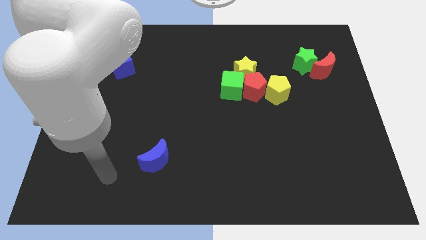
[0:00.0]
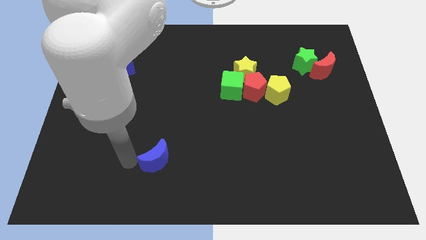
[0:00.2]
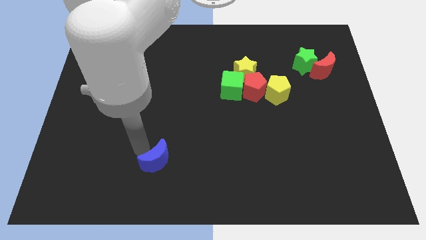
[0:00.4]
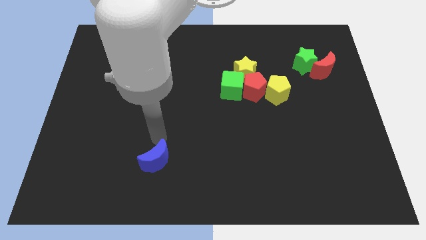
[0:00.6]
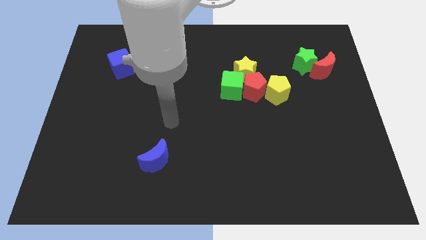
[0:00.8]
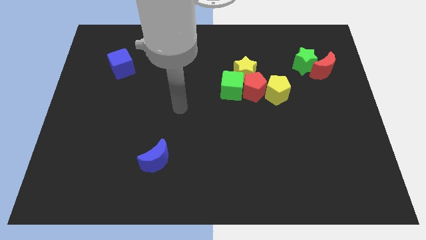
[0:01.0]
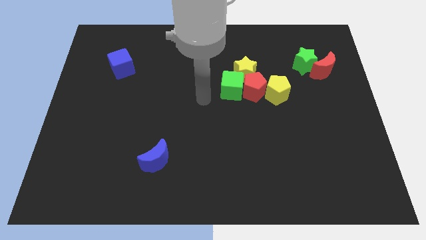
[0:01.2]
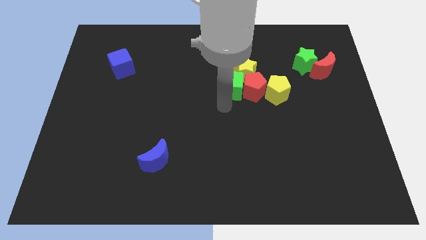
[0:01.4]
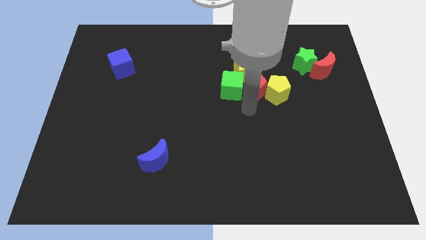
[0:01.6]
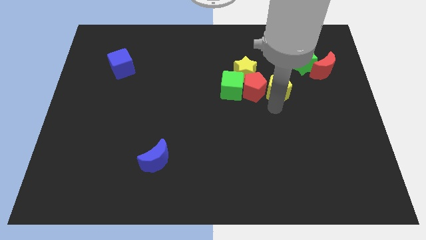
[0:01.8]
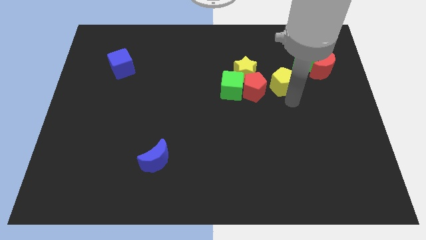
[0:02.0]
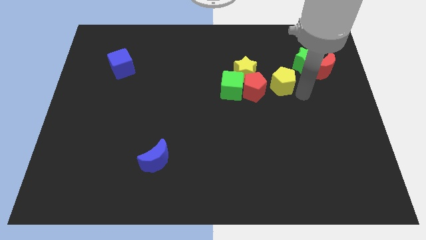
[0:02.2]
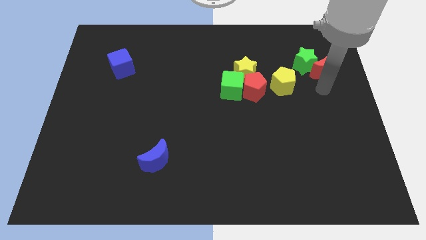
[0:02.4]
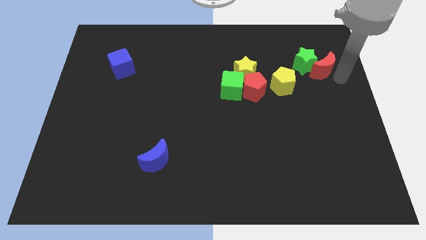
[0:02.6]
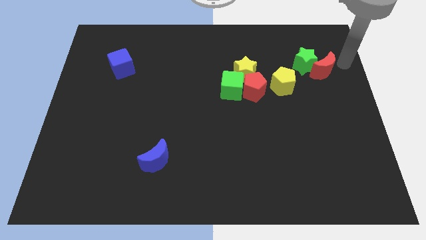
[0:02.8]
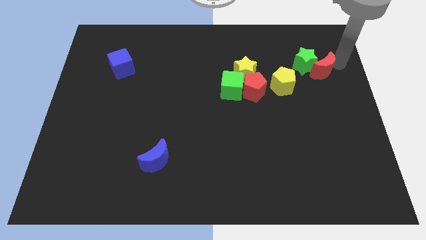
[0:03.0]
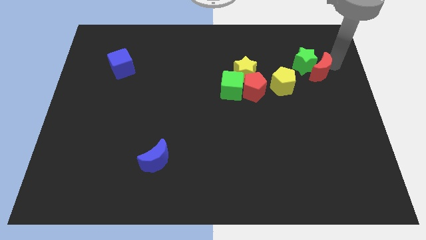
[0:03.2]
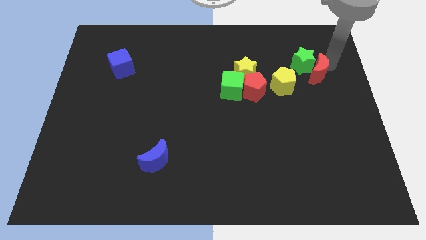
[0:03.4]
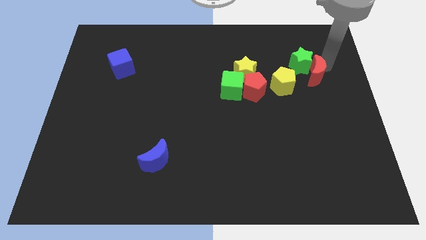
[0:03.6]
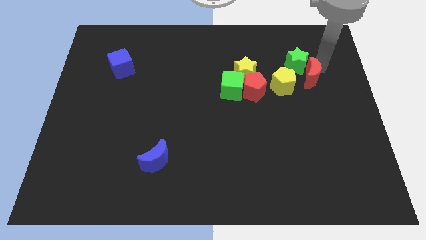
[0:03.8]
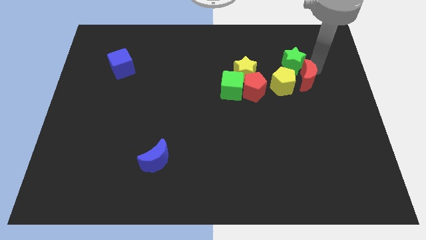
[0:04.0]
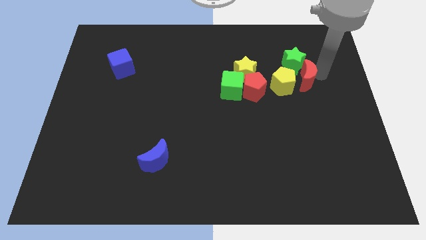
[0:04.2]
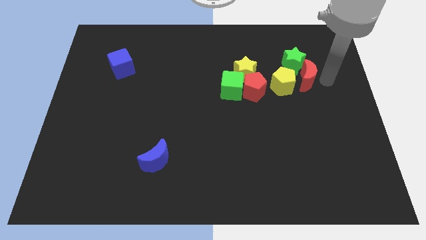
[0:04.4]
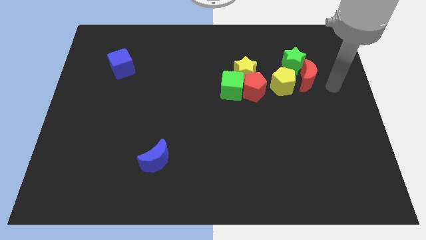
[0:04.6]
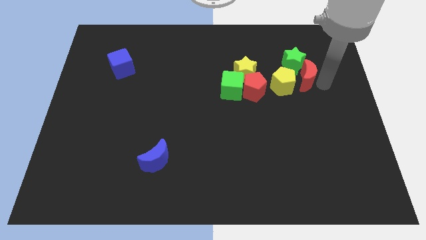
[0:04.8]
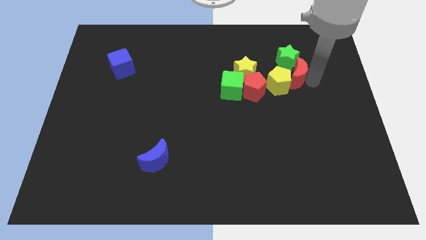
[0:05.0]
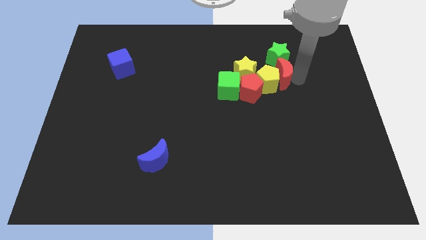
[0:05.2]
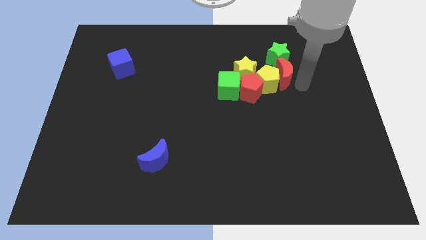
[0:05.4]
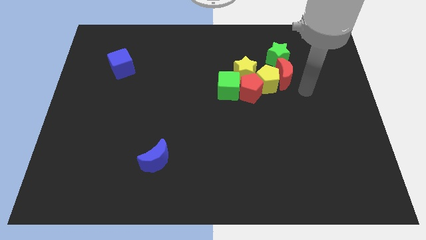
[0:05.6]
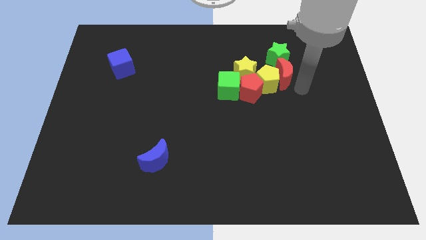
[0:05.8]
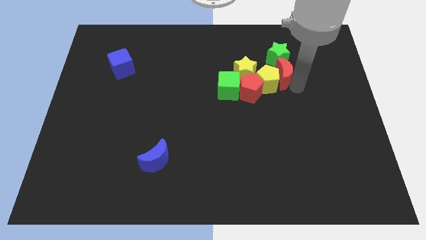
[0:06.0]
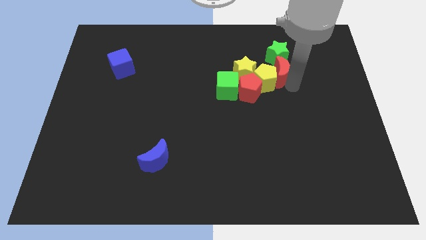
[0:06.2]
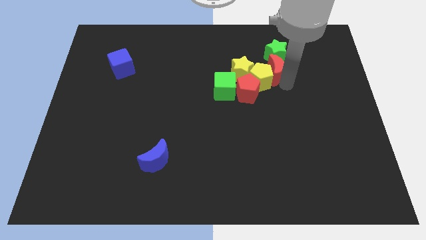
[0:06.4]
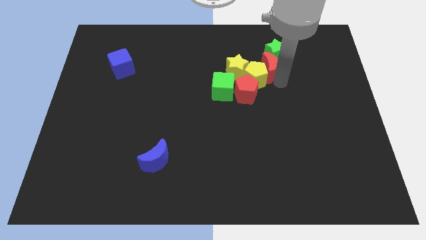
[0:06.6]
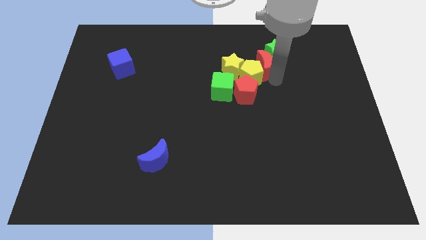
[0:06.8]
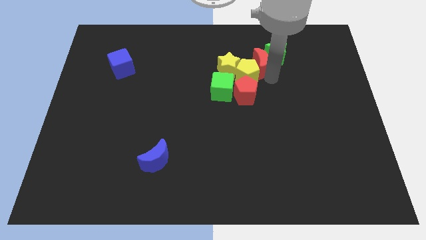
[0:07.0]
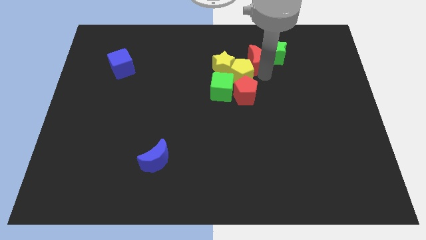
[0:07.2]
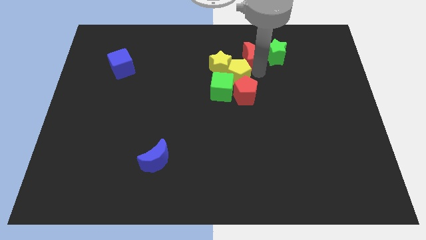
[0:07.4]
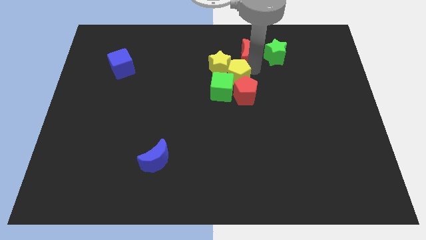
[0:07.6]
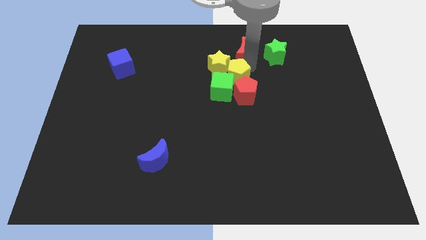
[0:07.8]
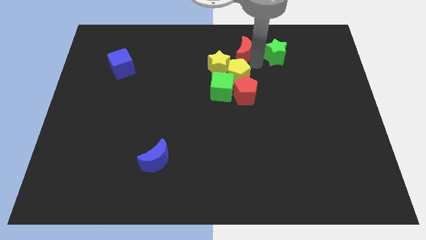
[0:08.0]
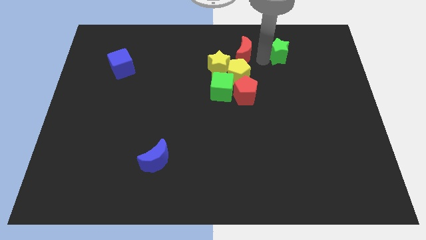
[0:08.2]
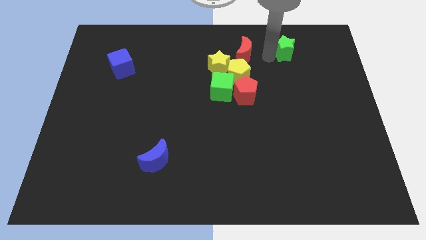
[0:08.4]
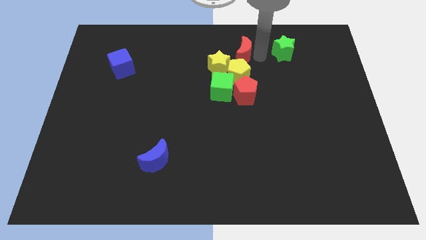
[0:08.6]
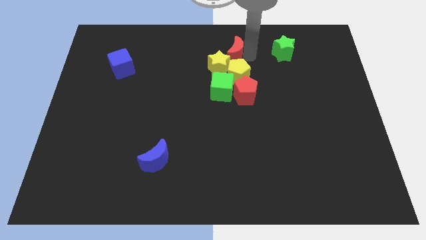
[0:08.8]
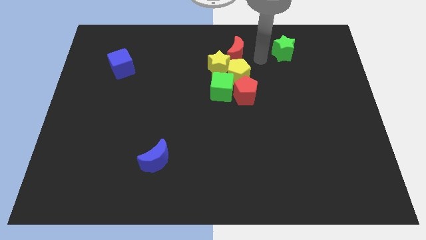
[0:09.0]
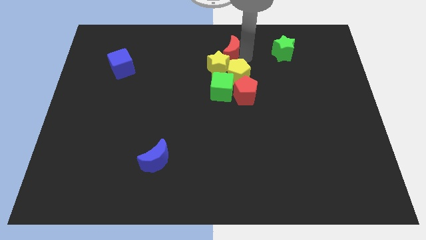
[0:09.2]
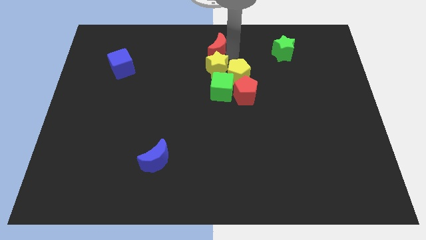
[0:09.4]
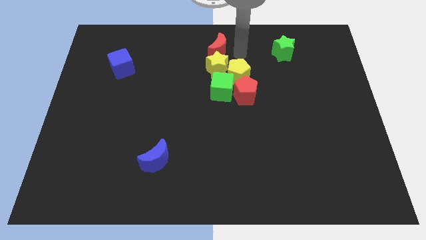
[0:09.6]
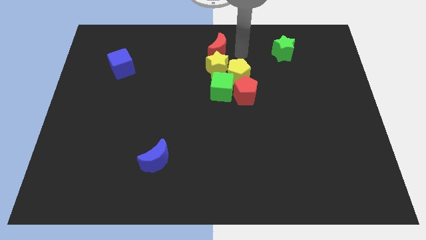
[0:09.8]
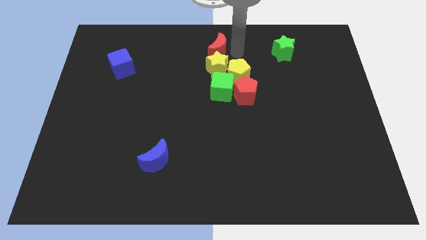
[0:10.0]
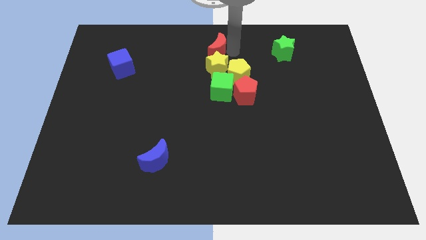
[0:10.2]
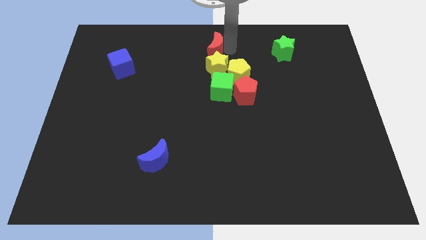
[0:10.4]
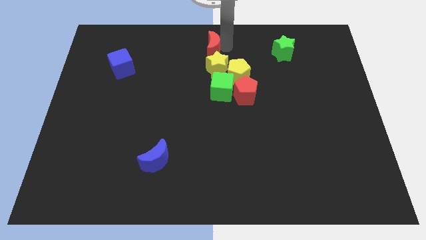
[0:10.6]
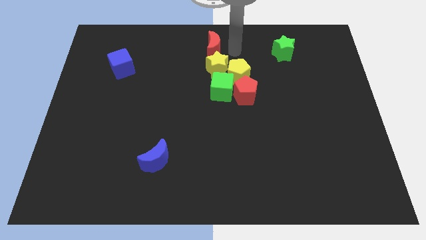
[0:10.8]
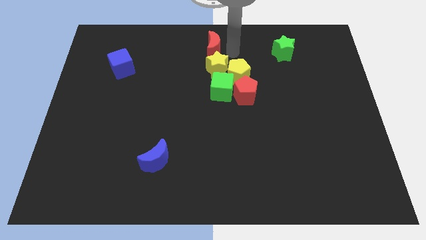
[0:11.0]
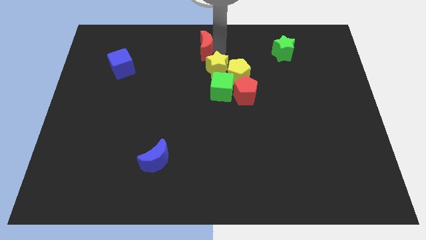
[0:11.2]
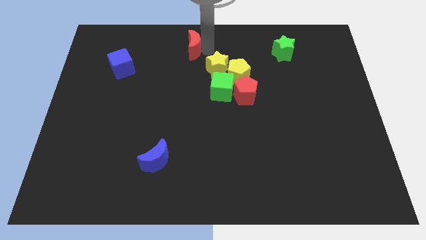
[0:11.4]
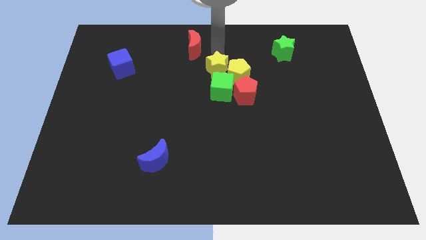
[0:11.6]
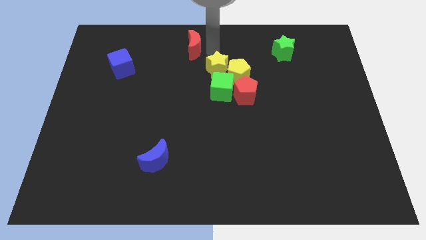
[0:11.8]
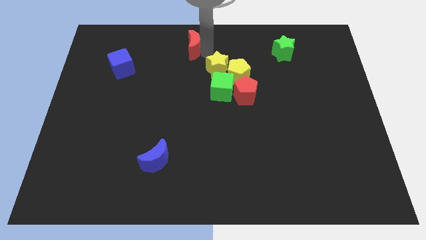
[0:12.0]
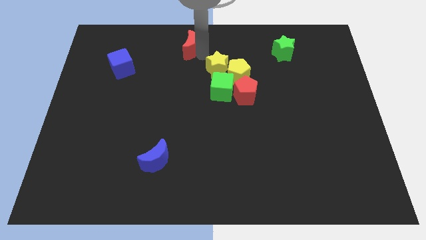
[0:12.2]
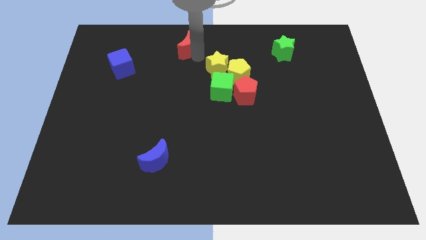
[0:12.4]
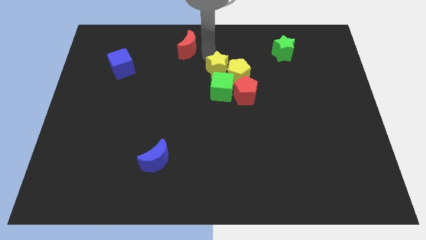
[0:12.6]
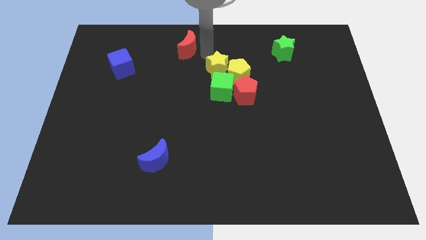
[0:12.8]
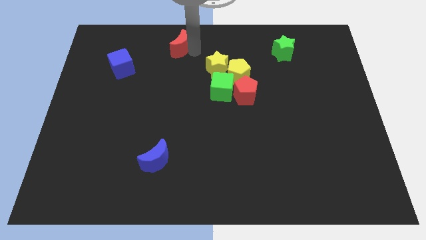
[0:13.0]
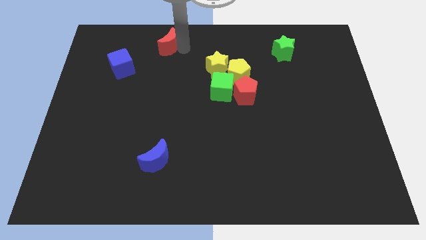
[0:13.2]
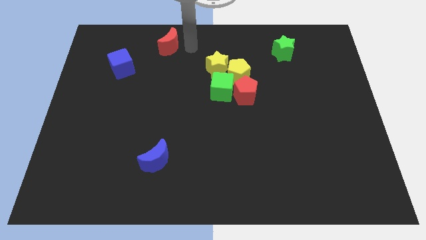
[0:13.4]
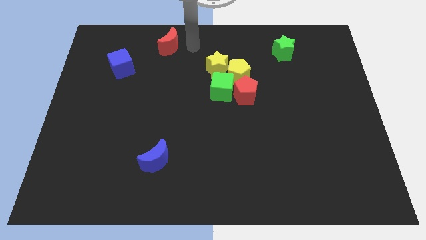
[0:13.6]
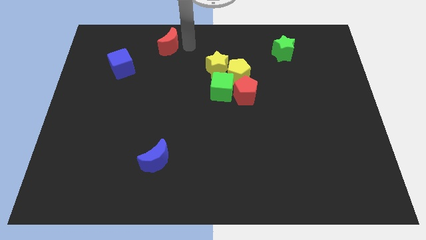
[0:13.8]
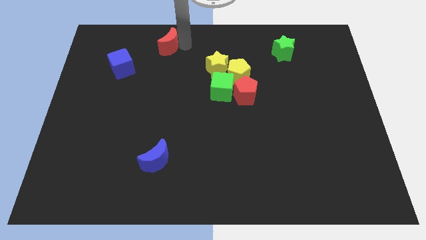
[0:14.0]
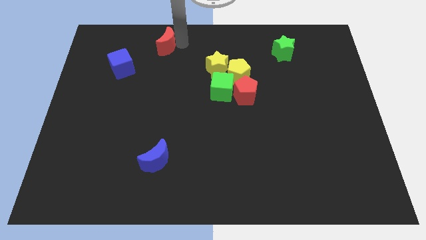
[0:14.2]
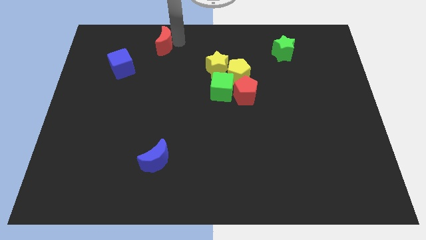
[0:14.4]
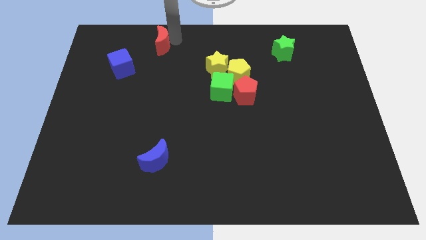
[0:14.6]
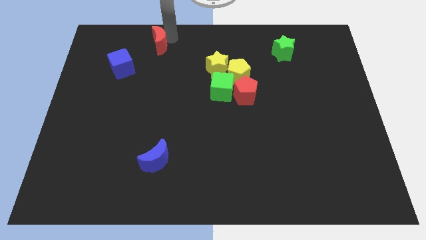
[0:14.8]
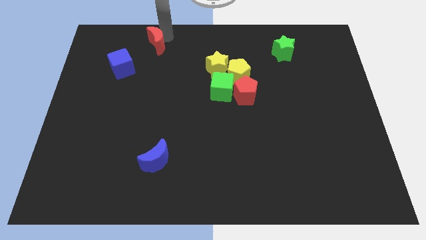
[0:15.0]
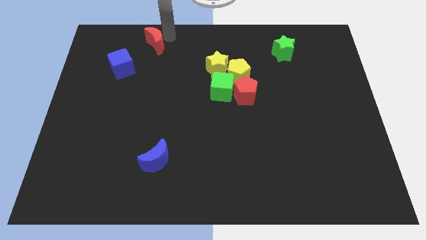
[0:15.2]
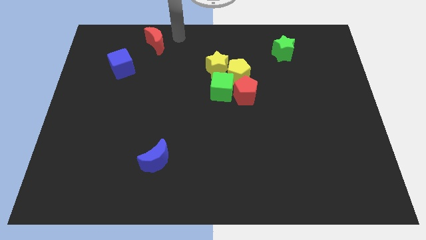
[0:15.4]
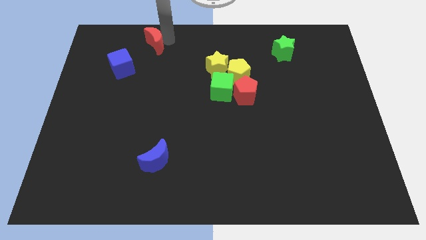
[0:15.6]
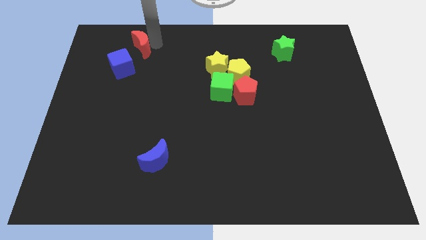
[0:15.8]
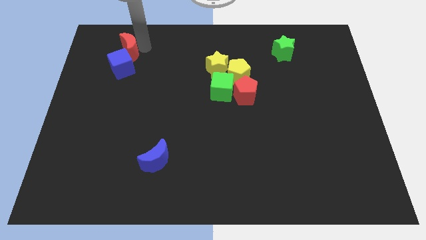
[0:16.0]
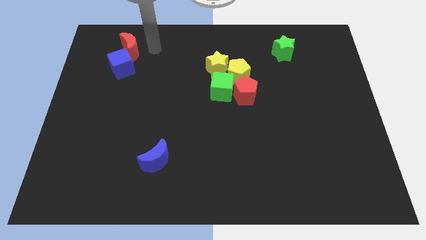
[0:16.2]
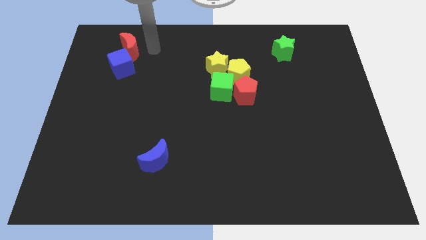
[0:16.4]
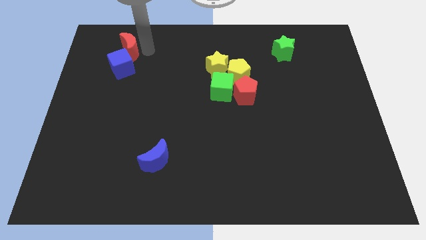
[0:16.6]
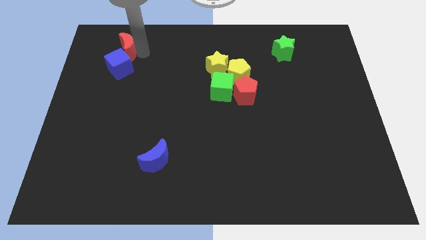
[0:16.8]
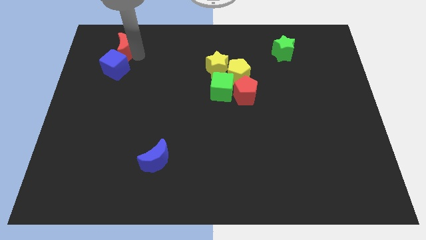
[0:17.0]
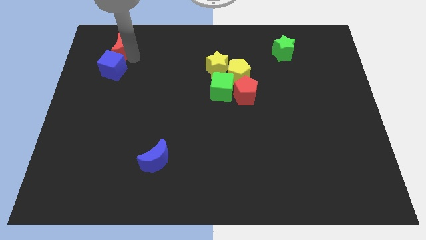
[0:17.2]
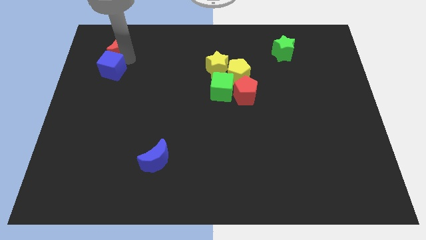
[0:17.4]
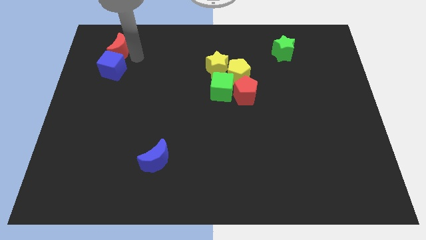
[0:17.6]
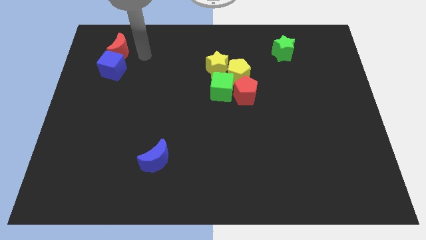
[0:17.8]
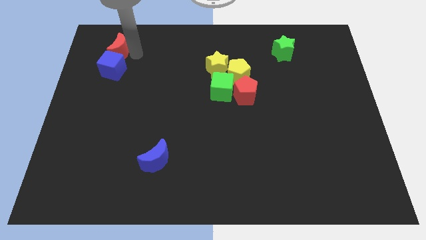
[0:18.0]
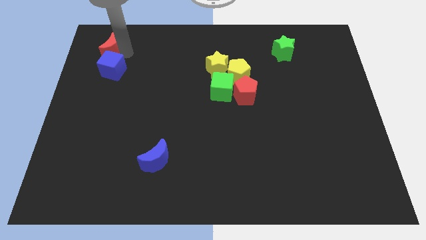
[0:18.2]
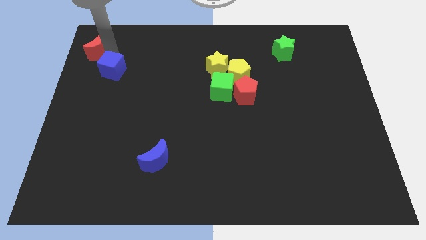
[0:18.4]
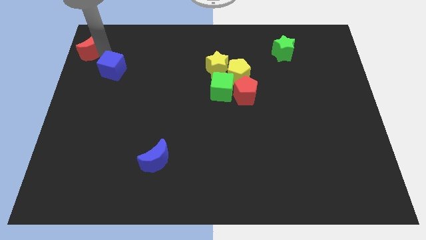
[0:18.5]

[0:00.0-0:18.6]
push the red moon to the top left
